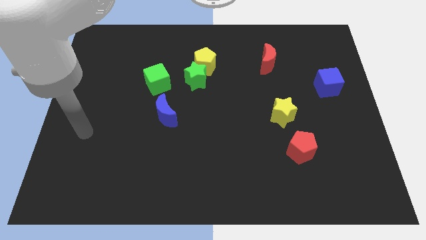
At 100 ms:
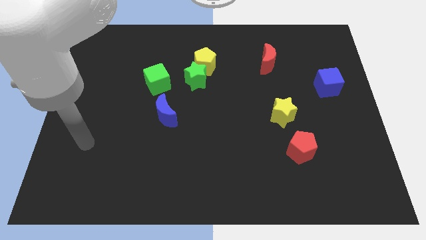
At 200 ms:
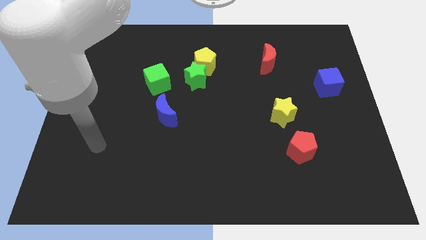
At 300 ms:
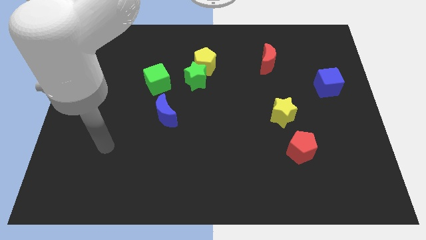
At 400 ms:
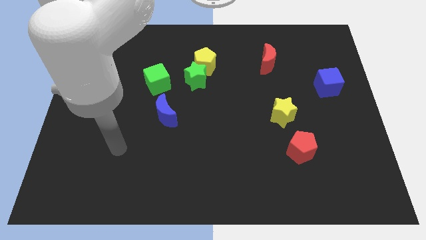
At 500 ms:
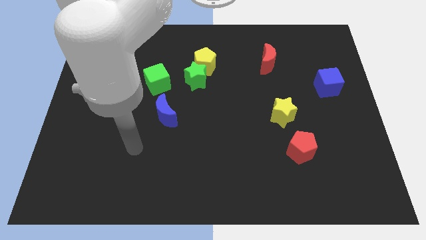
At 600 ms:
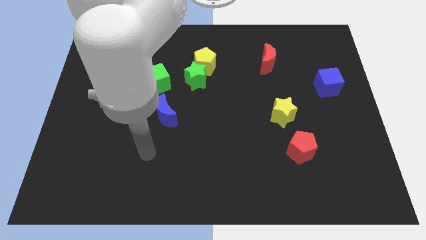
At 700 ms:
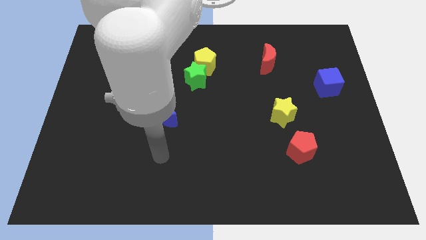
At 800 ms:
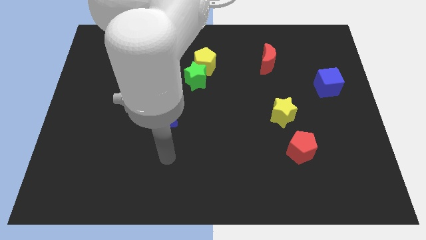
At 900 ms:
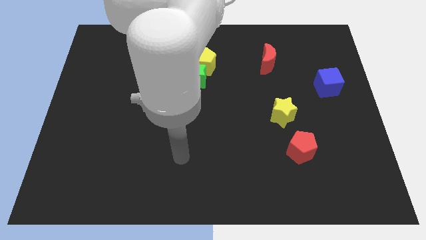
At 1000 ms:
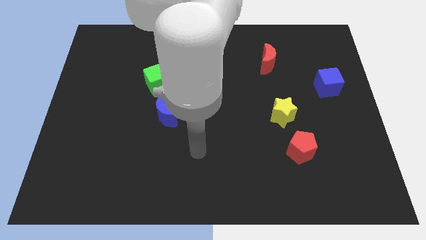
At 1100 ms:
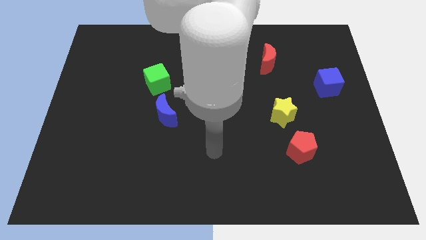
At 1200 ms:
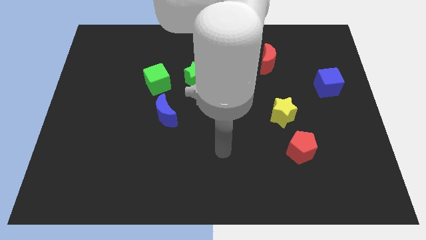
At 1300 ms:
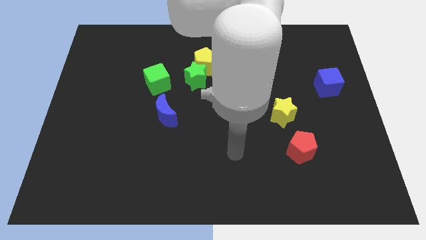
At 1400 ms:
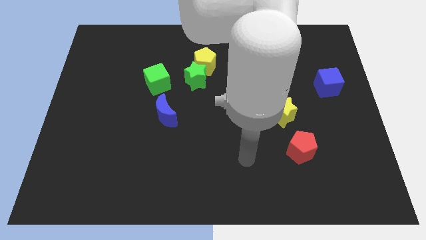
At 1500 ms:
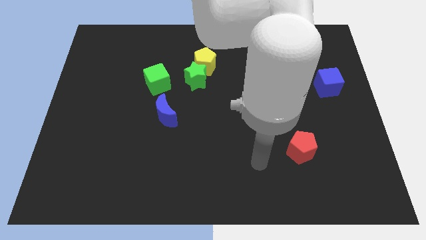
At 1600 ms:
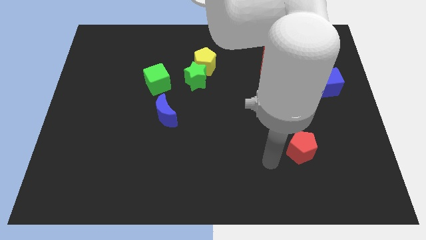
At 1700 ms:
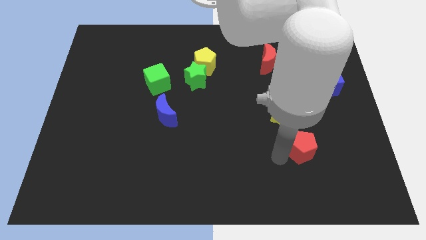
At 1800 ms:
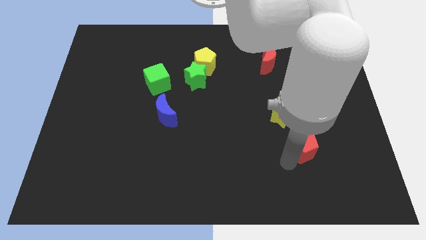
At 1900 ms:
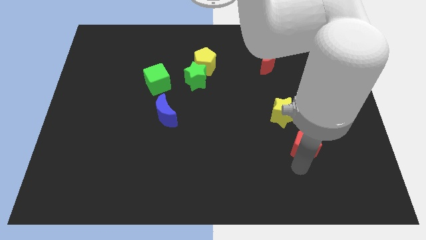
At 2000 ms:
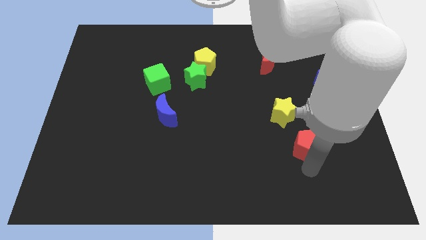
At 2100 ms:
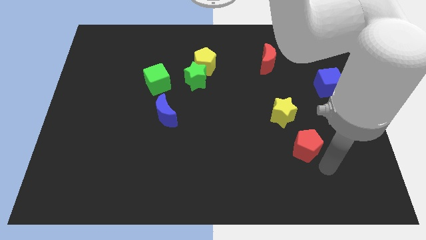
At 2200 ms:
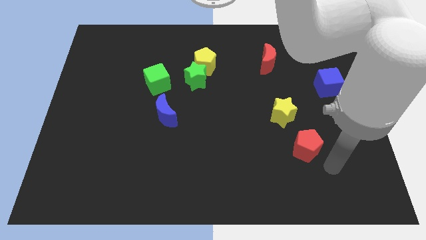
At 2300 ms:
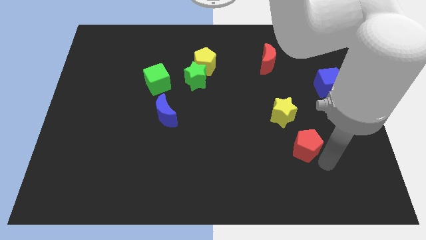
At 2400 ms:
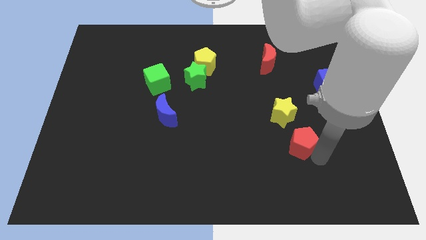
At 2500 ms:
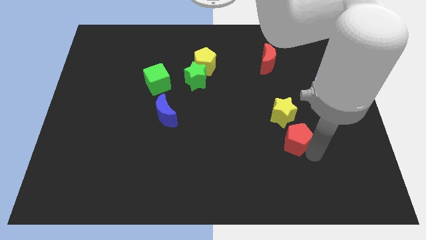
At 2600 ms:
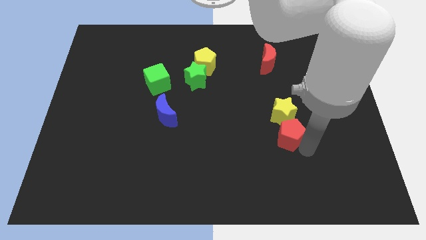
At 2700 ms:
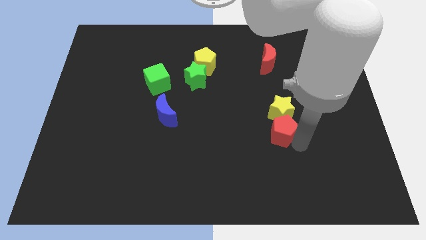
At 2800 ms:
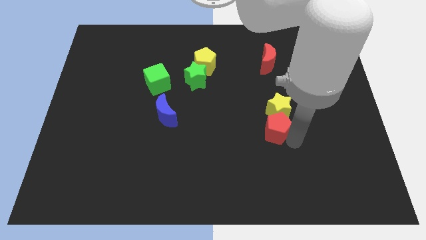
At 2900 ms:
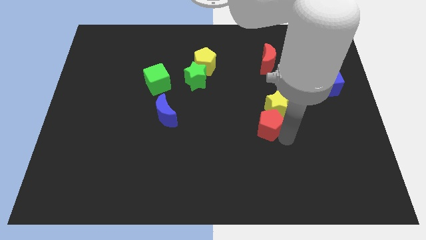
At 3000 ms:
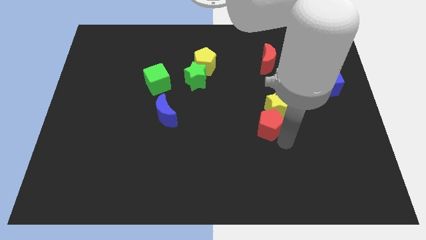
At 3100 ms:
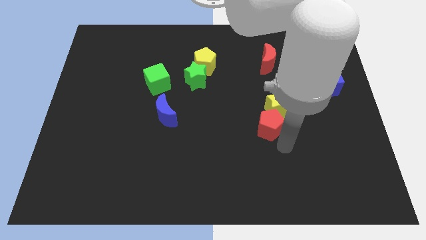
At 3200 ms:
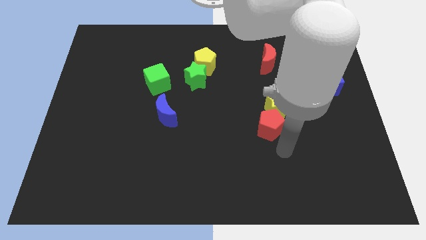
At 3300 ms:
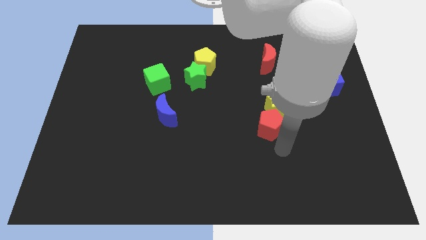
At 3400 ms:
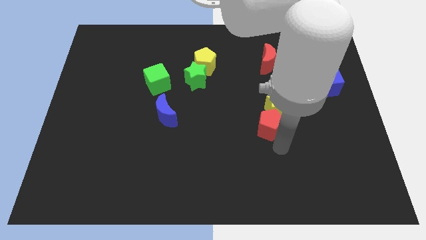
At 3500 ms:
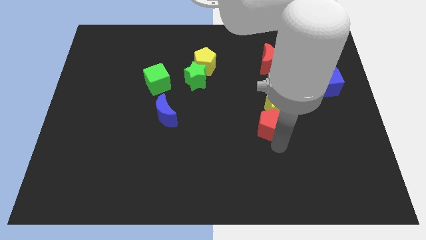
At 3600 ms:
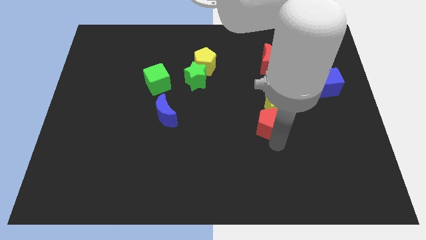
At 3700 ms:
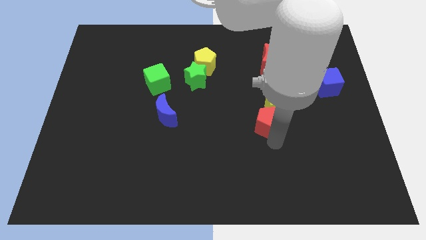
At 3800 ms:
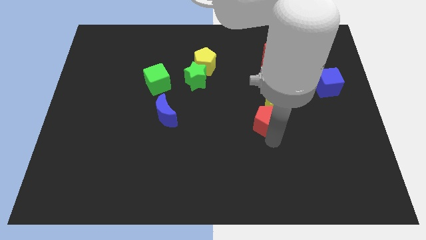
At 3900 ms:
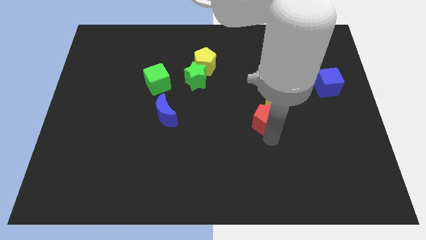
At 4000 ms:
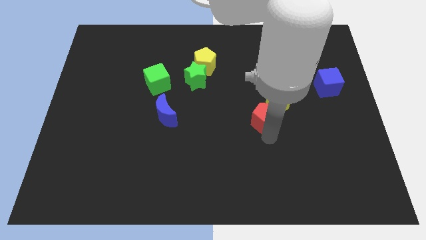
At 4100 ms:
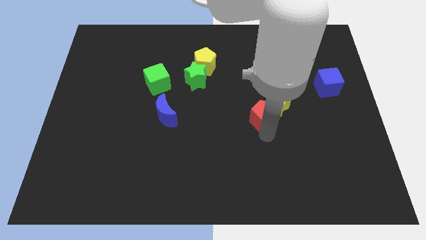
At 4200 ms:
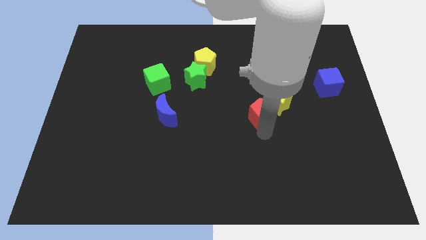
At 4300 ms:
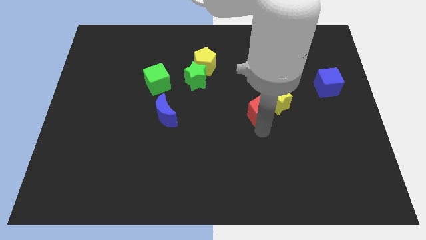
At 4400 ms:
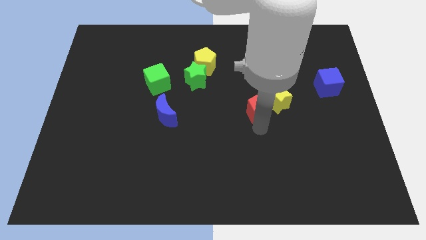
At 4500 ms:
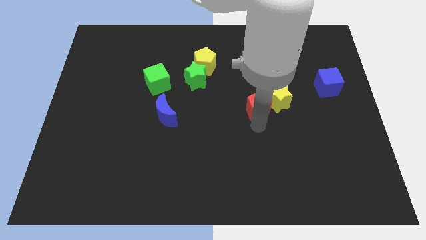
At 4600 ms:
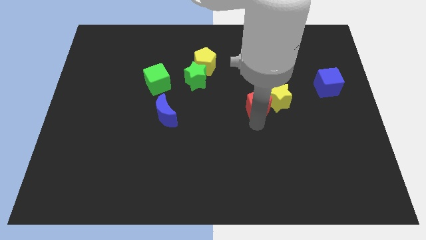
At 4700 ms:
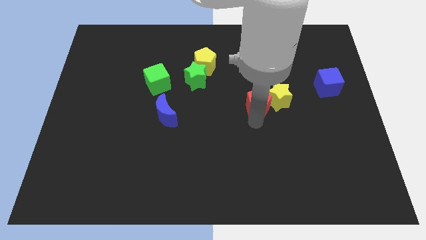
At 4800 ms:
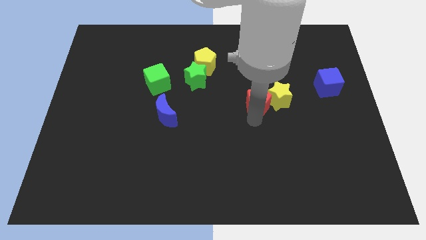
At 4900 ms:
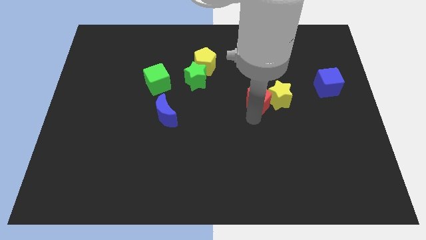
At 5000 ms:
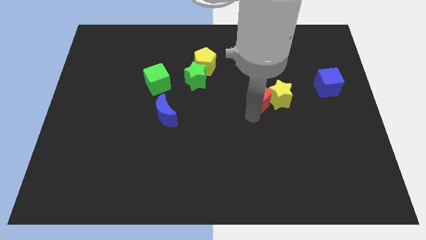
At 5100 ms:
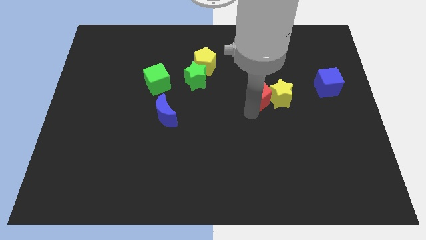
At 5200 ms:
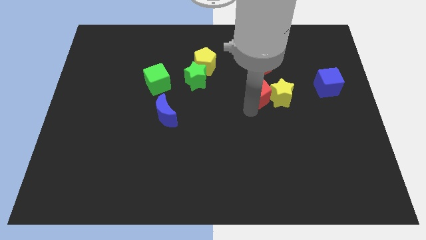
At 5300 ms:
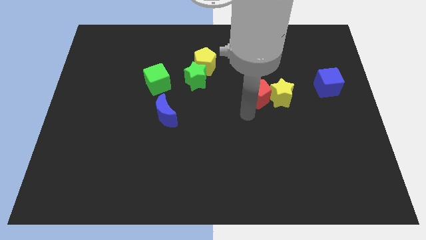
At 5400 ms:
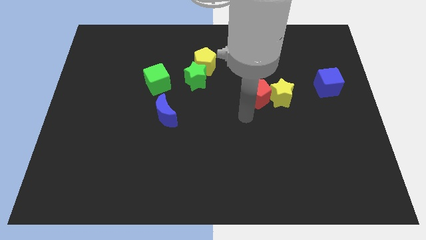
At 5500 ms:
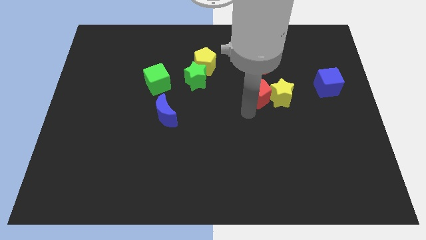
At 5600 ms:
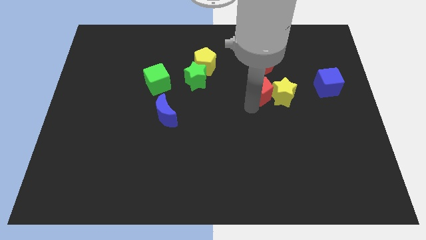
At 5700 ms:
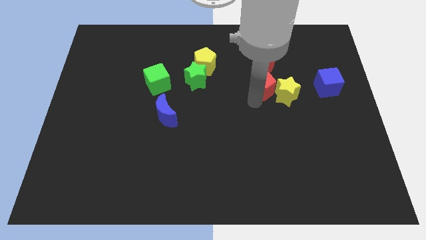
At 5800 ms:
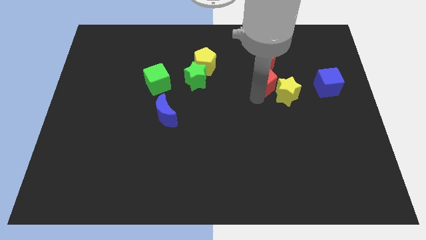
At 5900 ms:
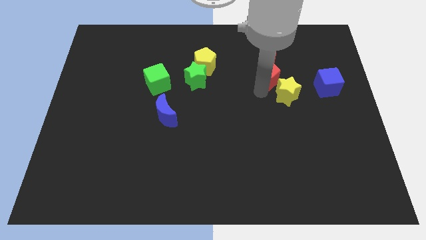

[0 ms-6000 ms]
push the red pentagon next to the red moon

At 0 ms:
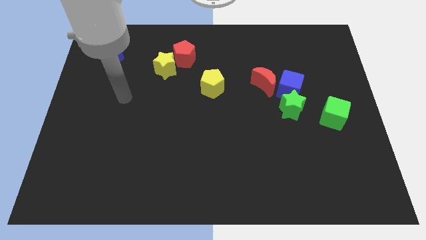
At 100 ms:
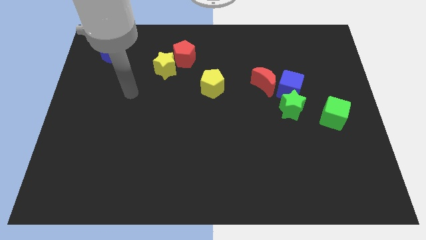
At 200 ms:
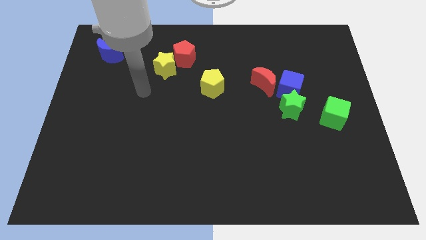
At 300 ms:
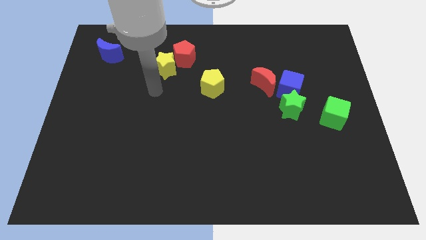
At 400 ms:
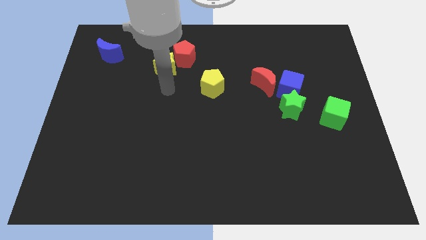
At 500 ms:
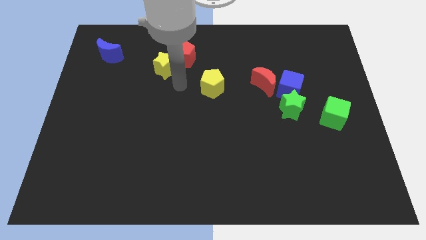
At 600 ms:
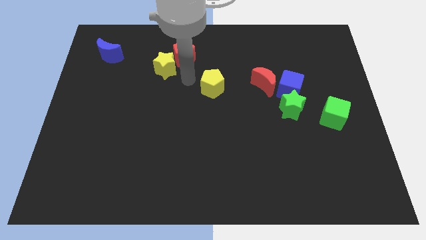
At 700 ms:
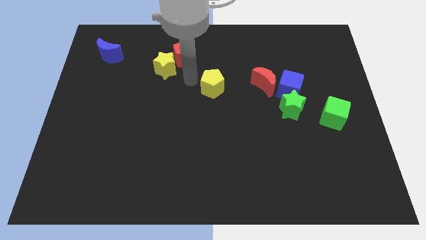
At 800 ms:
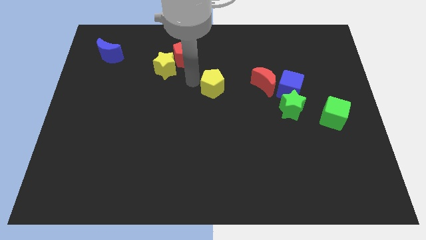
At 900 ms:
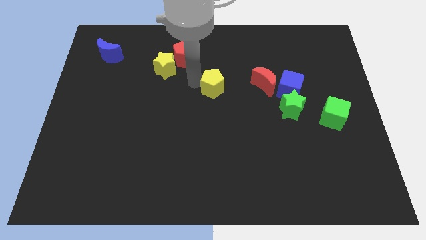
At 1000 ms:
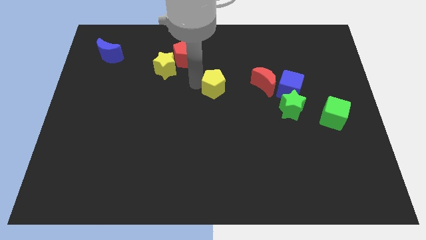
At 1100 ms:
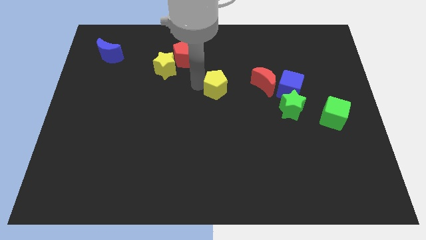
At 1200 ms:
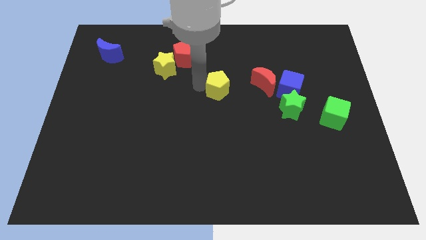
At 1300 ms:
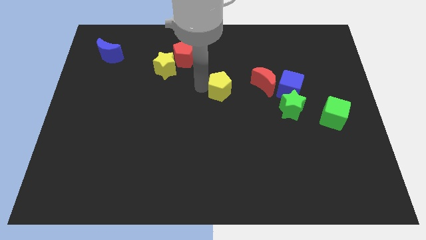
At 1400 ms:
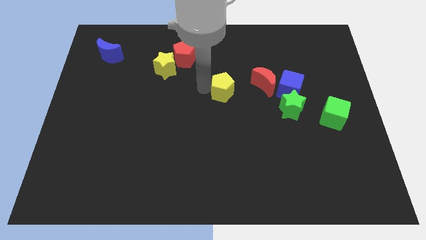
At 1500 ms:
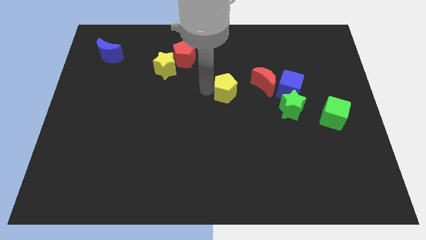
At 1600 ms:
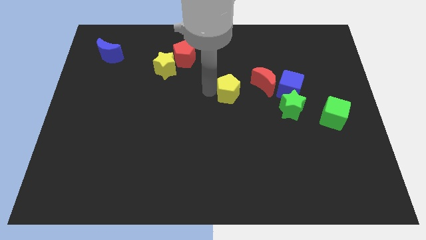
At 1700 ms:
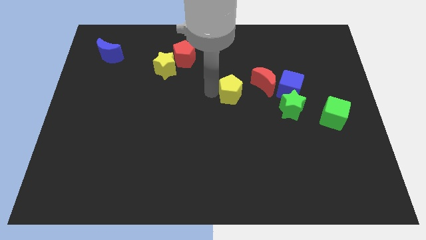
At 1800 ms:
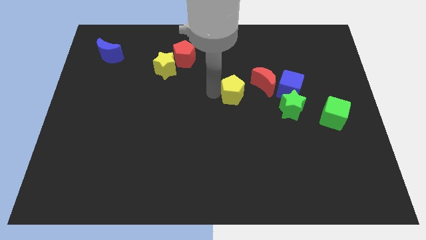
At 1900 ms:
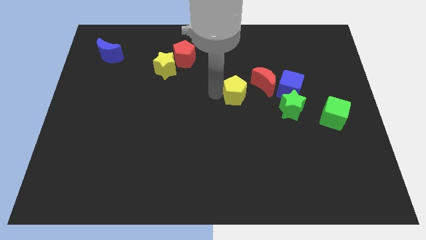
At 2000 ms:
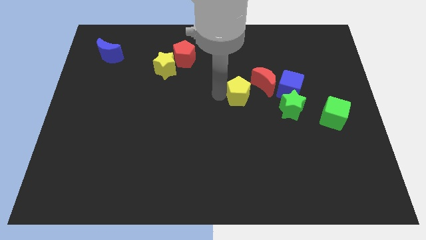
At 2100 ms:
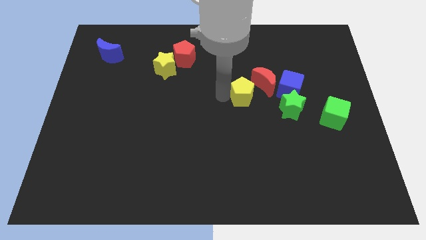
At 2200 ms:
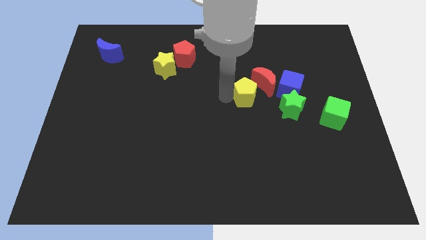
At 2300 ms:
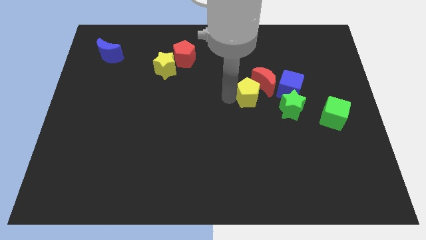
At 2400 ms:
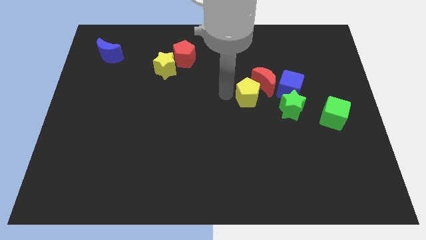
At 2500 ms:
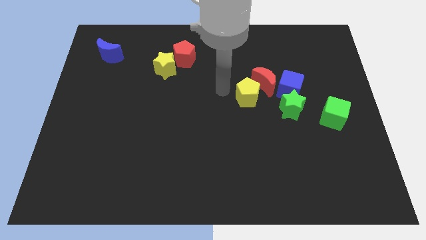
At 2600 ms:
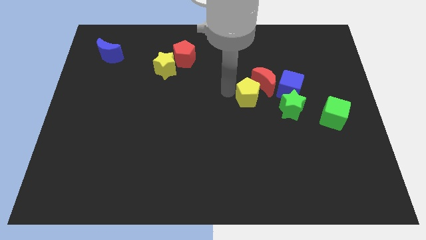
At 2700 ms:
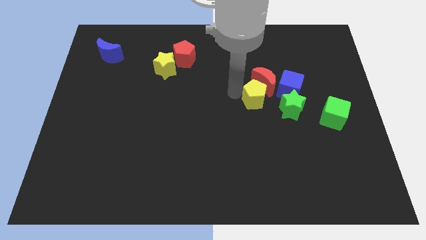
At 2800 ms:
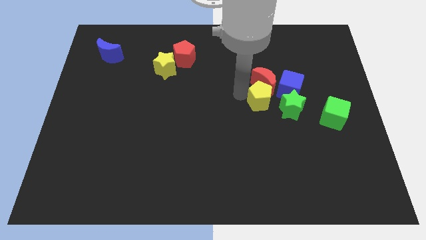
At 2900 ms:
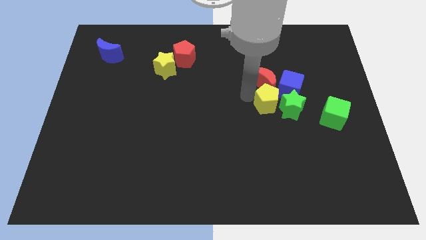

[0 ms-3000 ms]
push the yellow pentagon close to the green star
